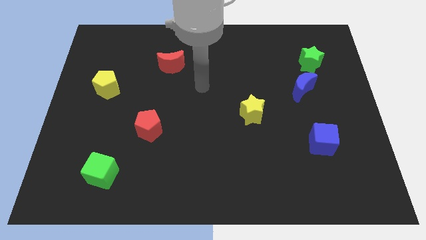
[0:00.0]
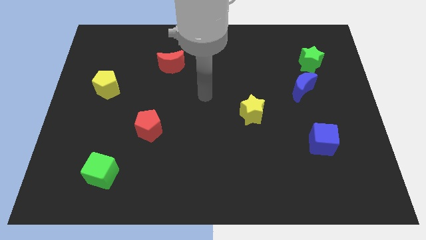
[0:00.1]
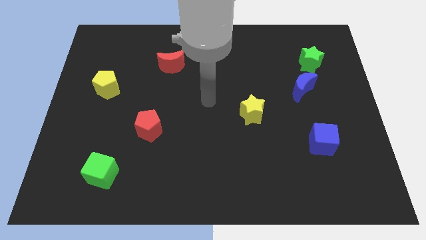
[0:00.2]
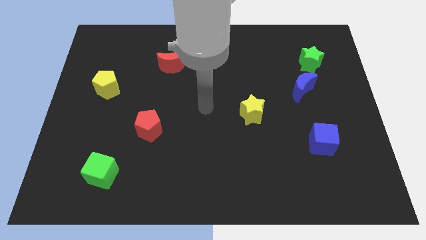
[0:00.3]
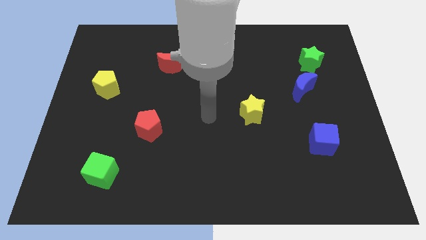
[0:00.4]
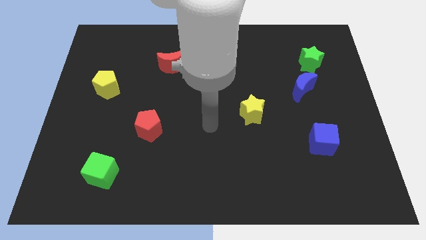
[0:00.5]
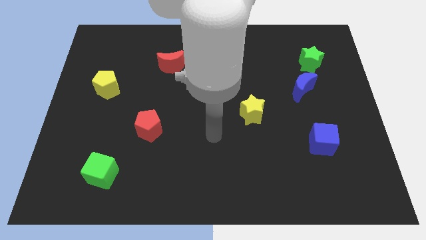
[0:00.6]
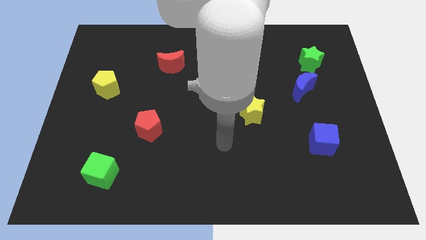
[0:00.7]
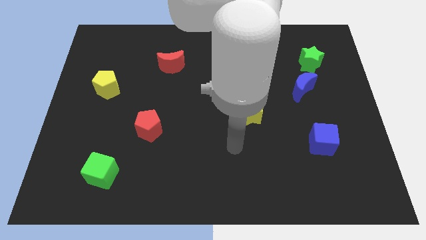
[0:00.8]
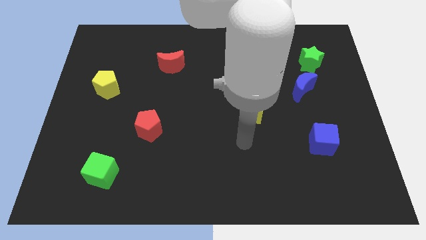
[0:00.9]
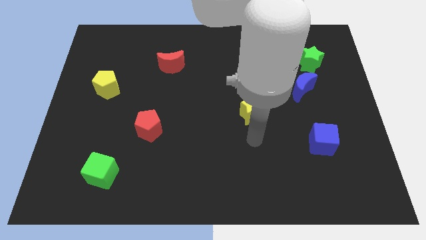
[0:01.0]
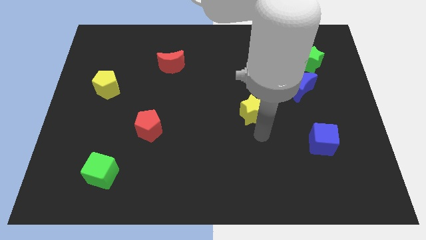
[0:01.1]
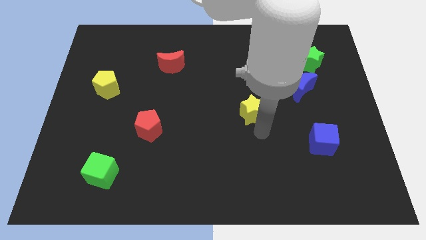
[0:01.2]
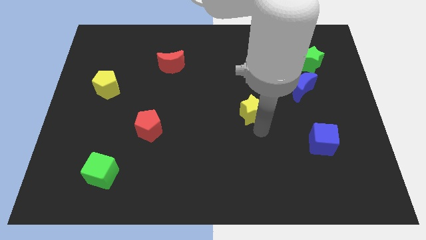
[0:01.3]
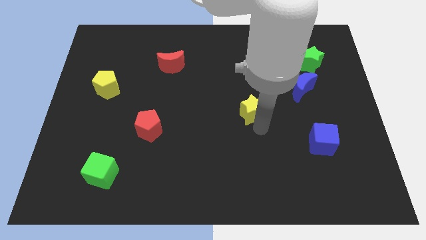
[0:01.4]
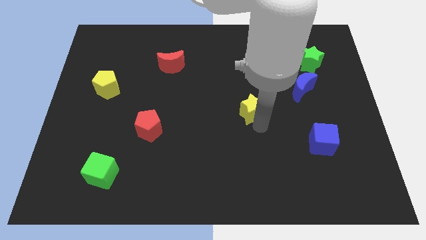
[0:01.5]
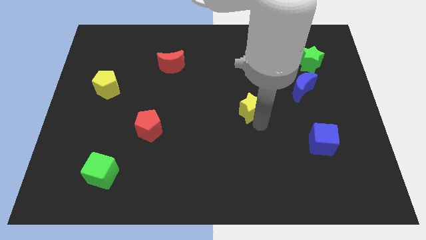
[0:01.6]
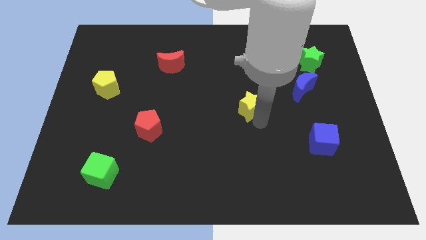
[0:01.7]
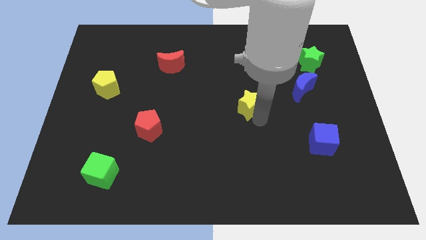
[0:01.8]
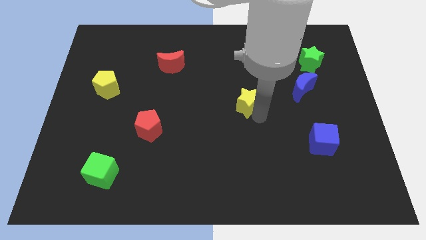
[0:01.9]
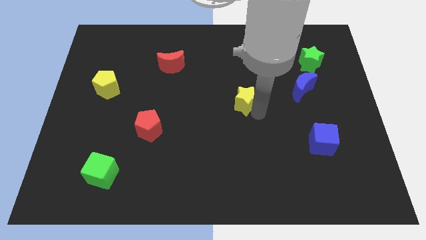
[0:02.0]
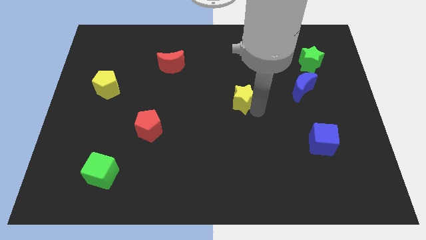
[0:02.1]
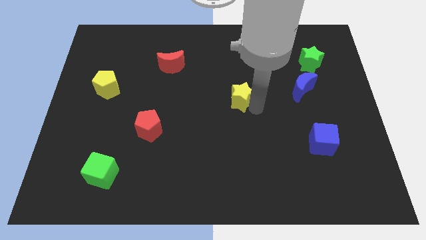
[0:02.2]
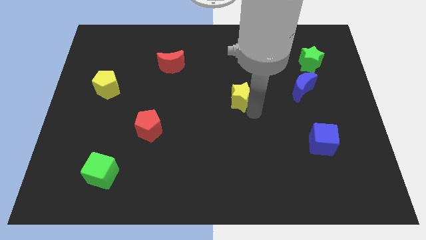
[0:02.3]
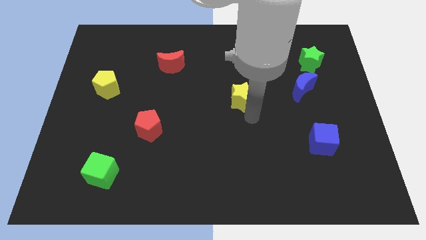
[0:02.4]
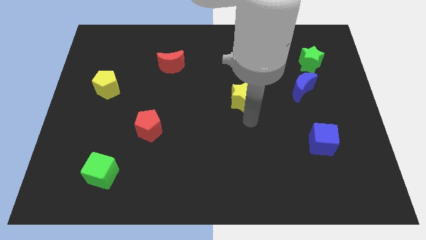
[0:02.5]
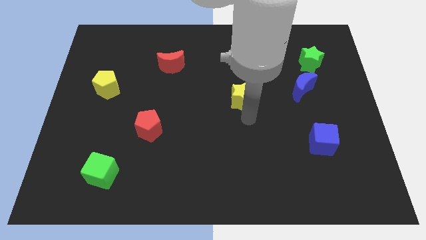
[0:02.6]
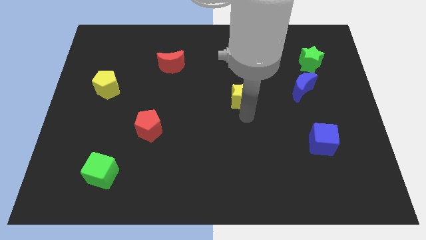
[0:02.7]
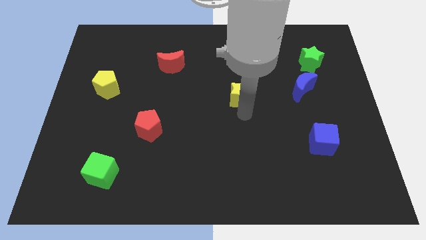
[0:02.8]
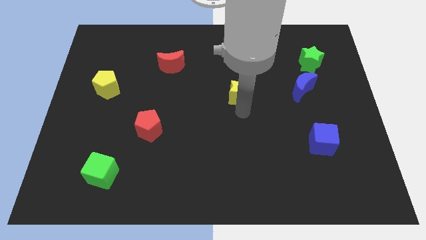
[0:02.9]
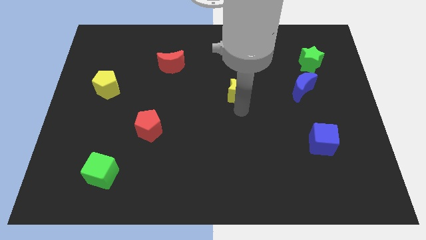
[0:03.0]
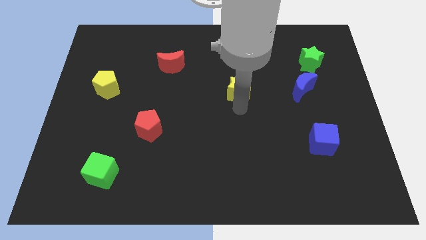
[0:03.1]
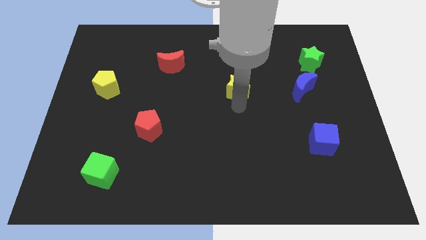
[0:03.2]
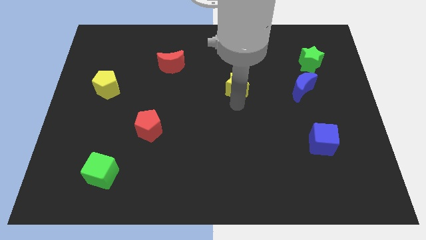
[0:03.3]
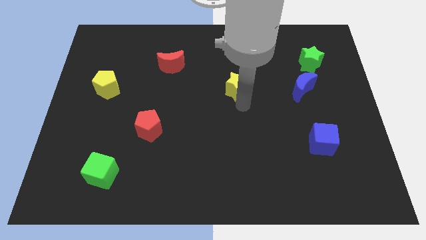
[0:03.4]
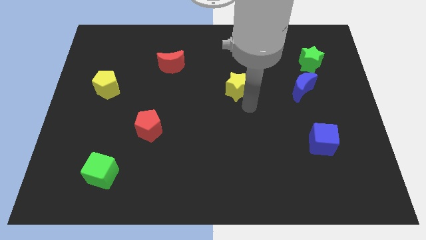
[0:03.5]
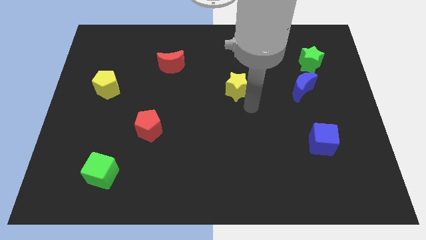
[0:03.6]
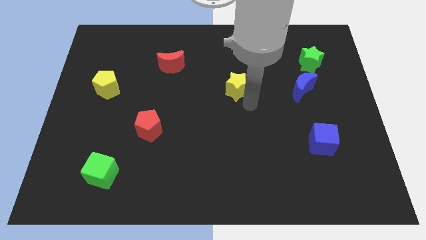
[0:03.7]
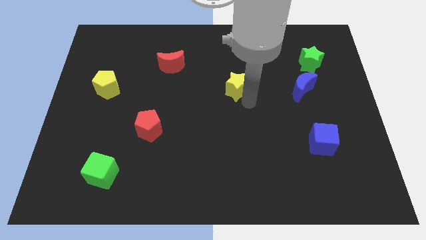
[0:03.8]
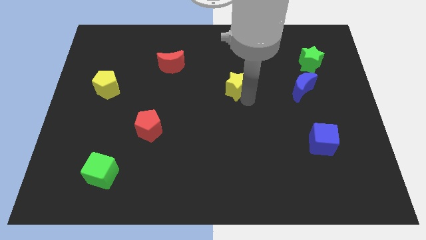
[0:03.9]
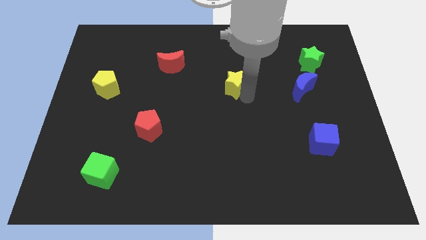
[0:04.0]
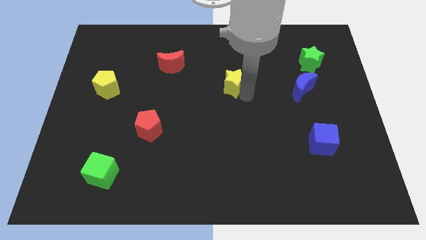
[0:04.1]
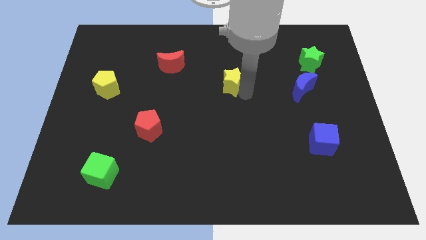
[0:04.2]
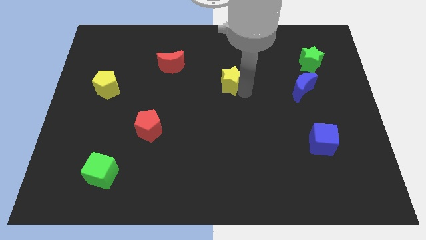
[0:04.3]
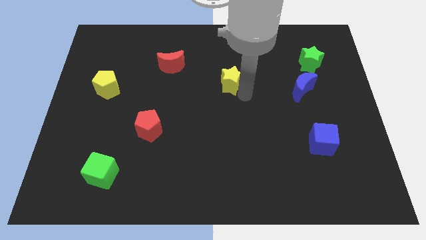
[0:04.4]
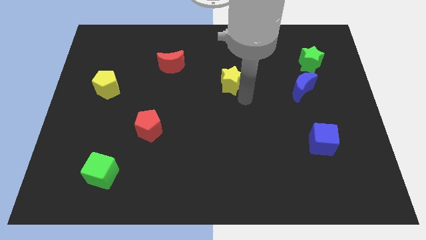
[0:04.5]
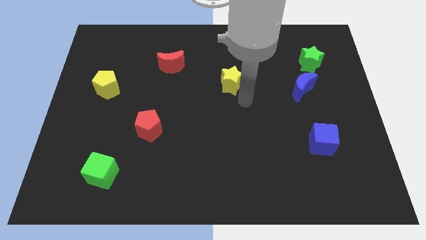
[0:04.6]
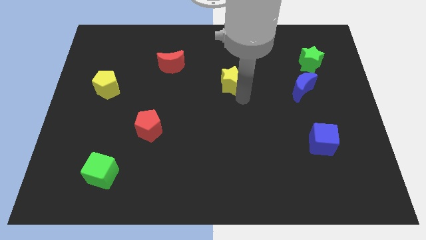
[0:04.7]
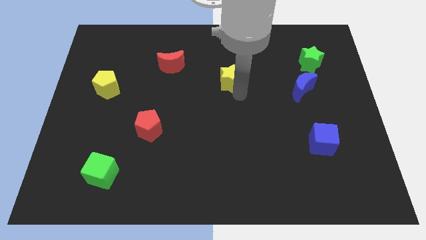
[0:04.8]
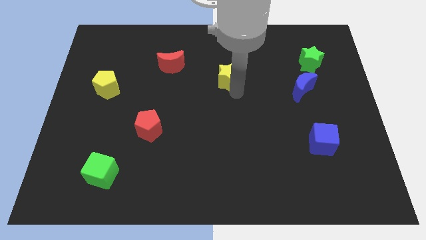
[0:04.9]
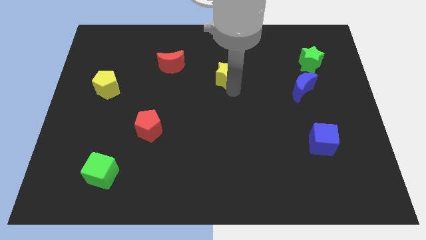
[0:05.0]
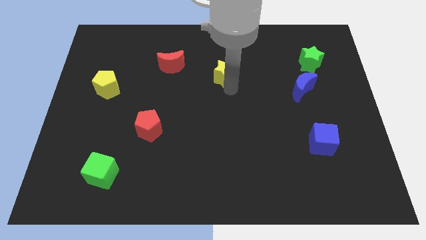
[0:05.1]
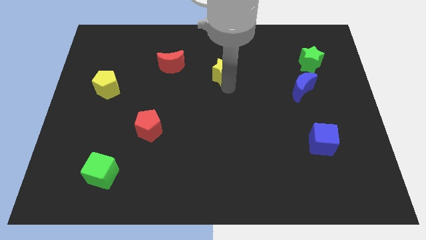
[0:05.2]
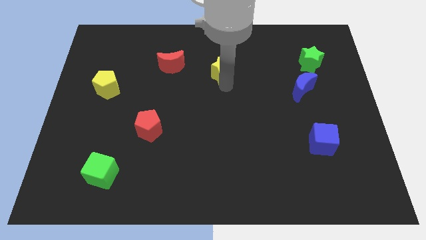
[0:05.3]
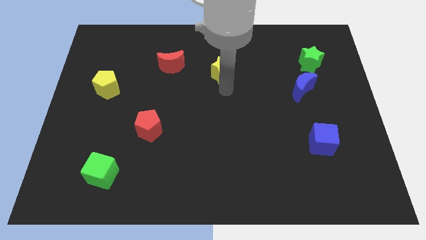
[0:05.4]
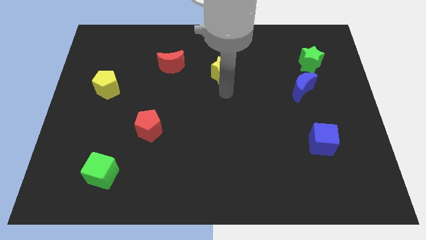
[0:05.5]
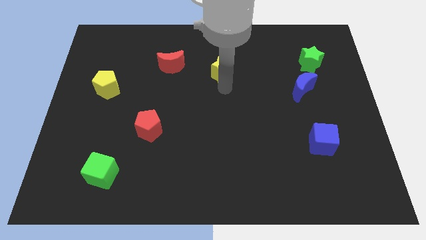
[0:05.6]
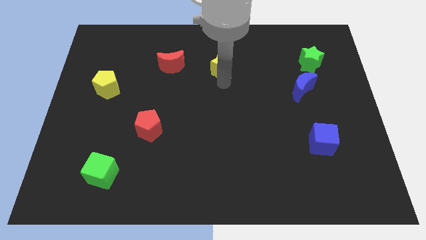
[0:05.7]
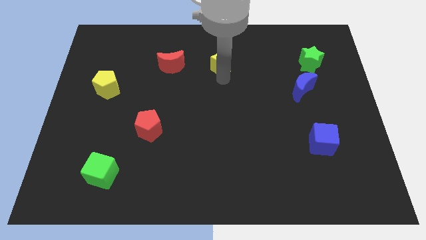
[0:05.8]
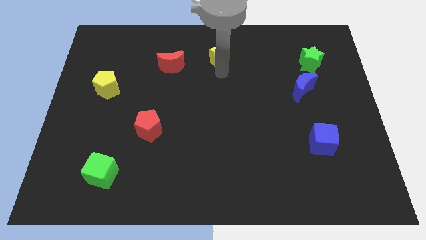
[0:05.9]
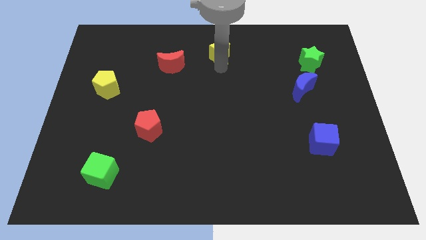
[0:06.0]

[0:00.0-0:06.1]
slide the yellow star to the top side
